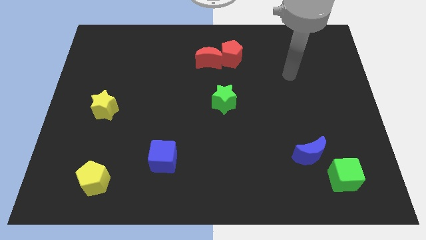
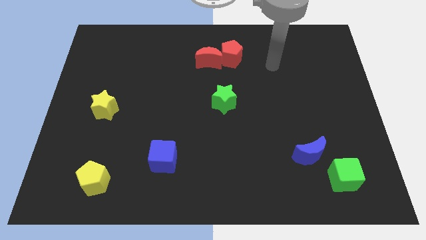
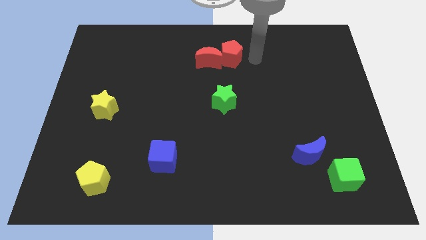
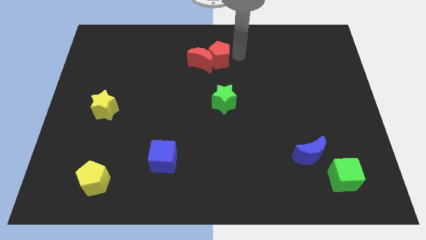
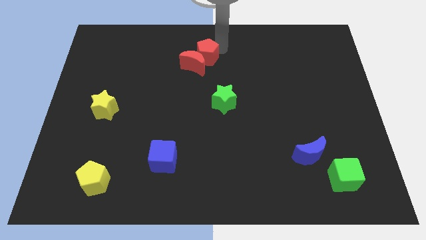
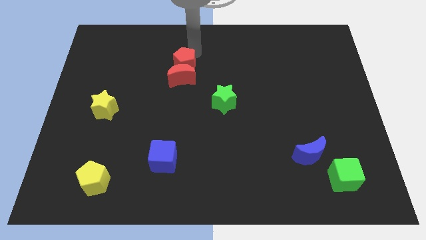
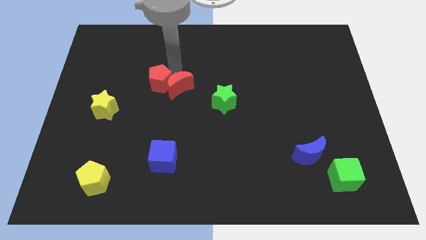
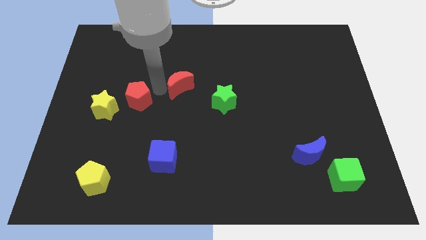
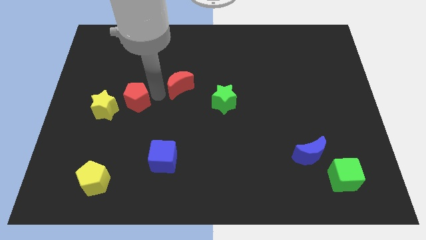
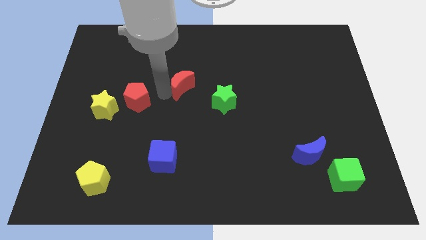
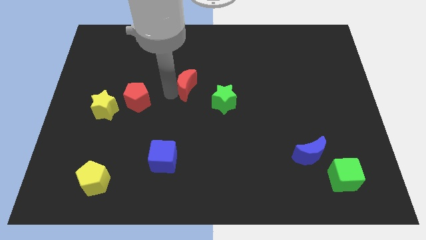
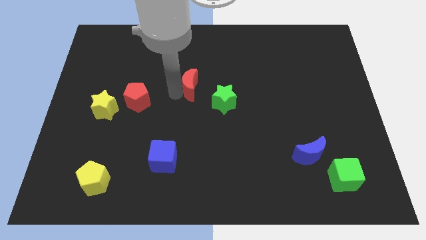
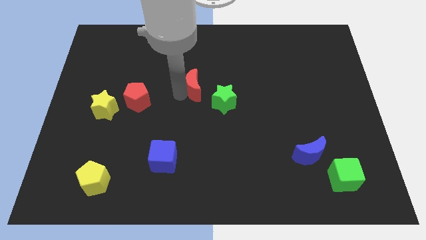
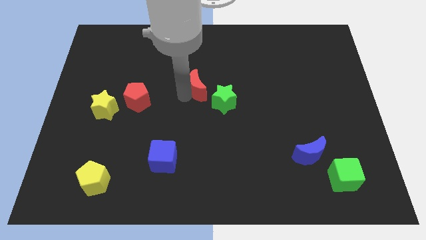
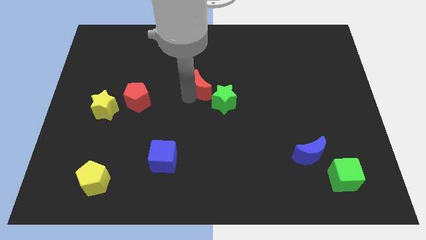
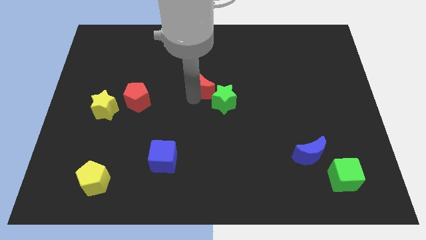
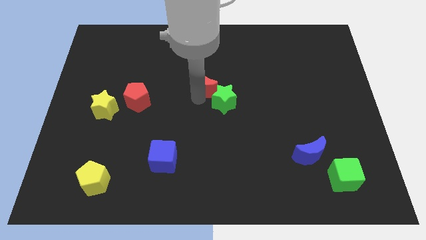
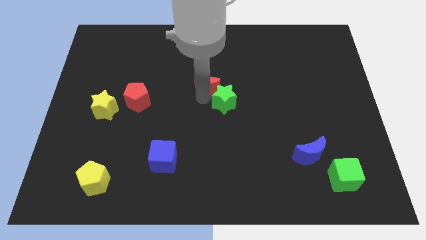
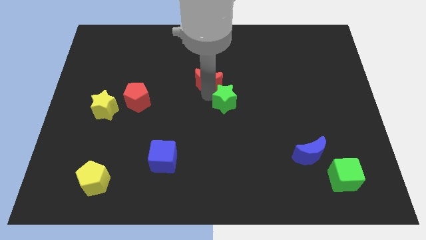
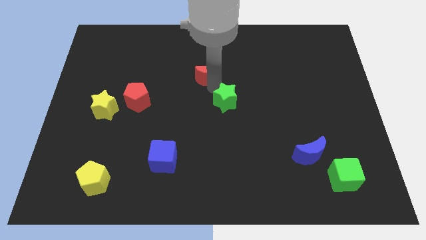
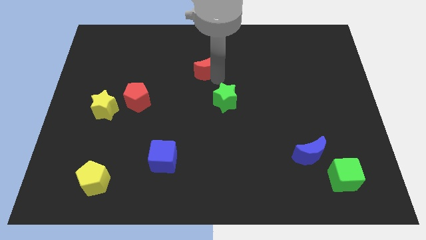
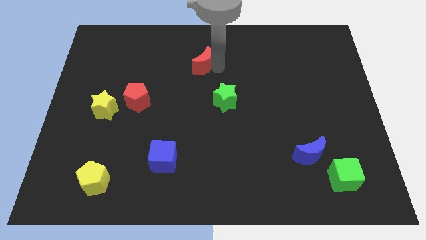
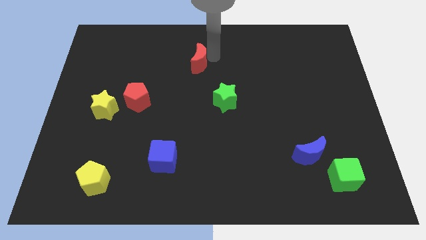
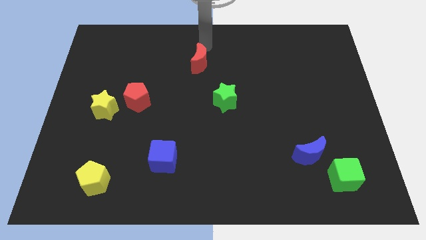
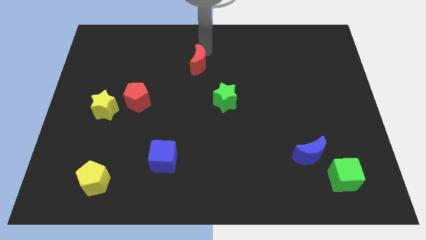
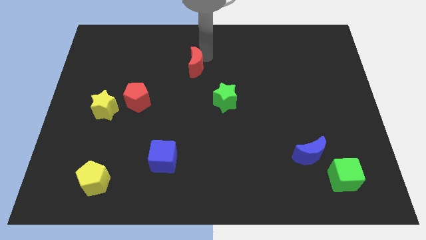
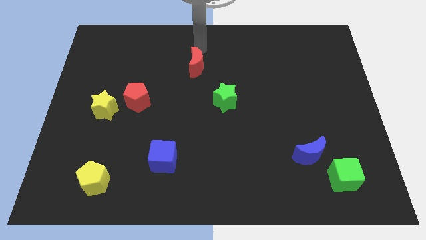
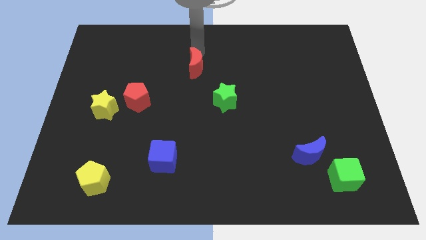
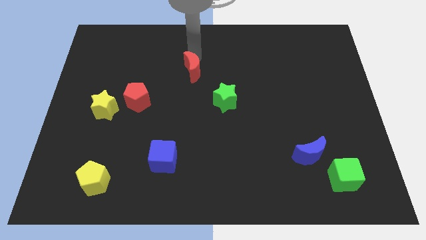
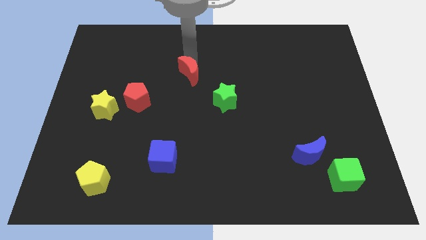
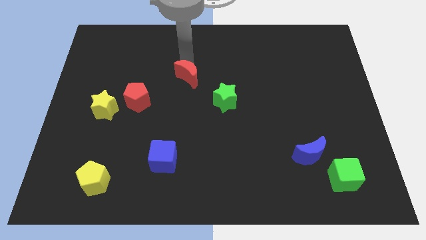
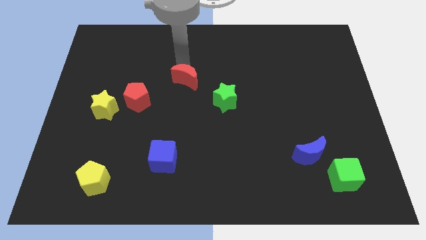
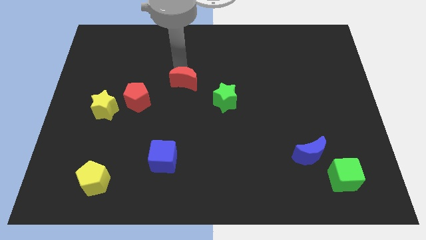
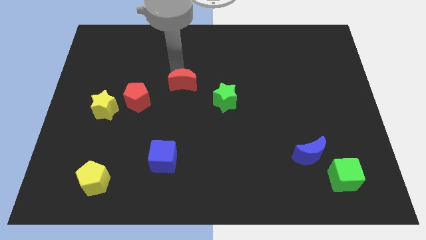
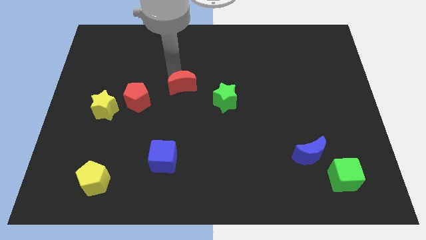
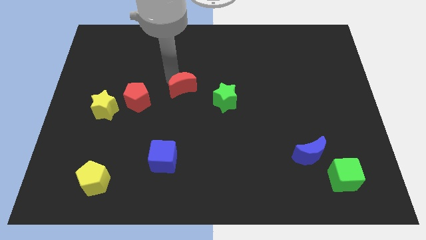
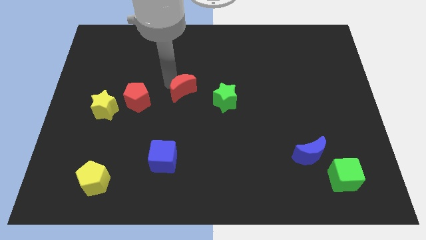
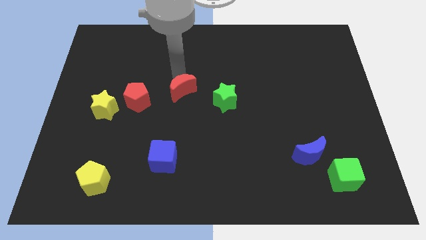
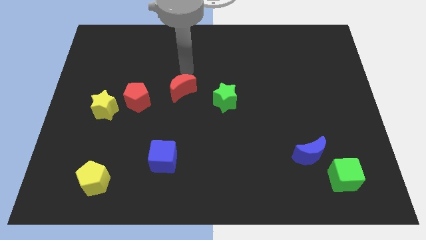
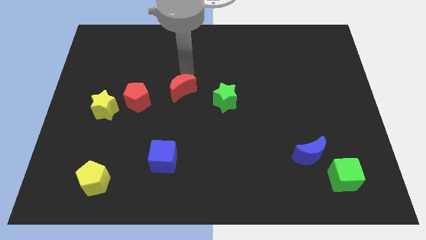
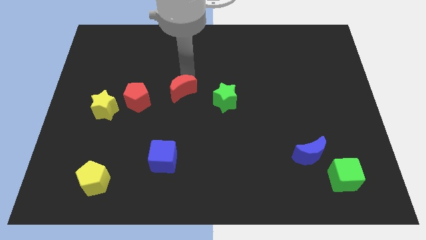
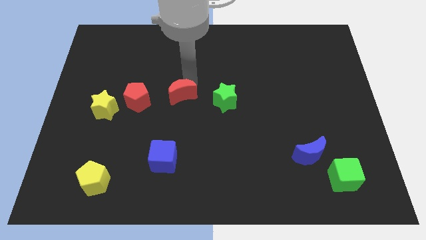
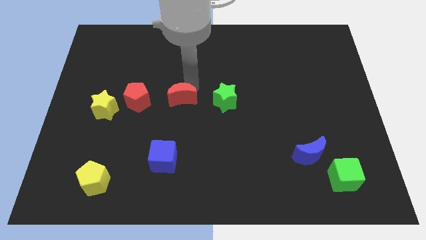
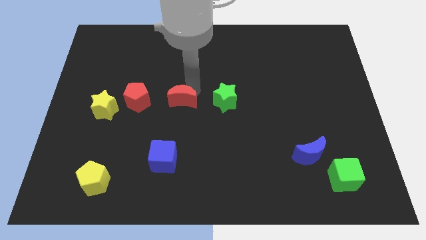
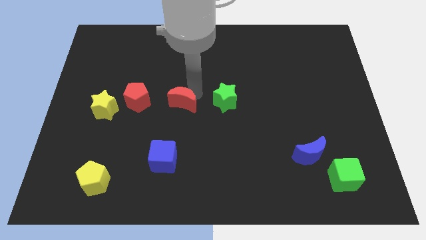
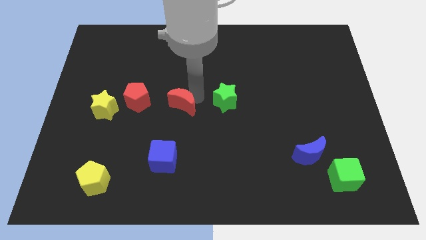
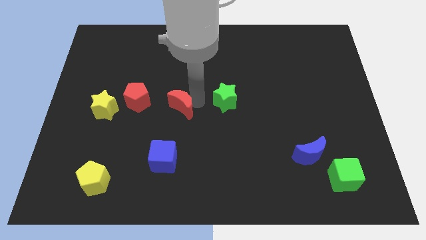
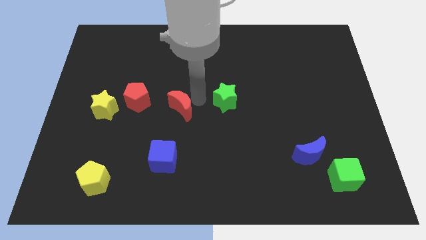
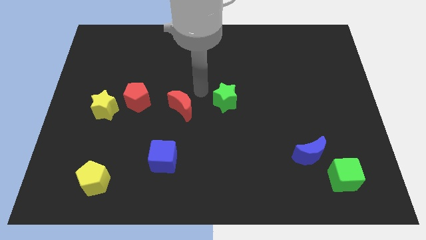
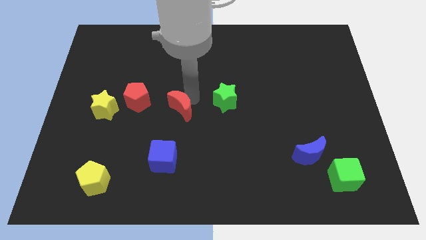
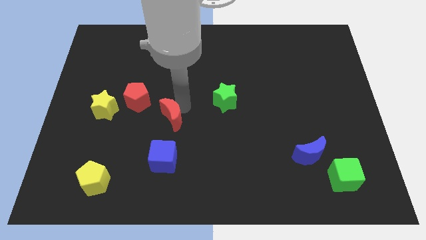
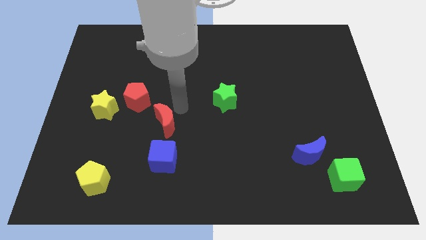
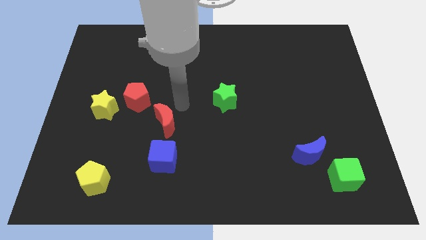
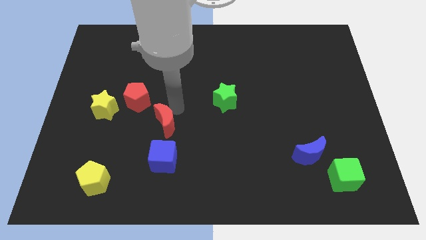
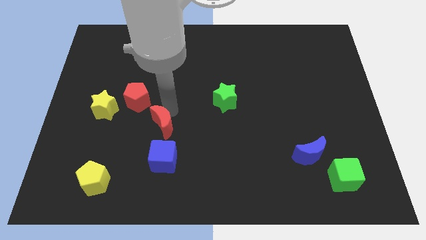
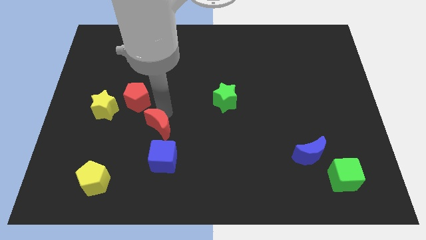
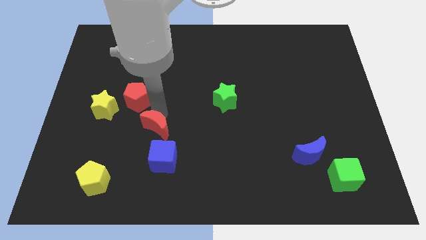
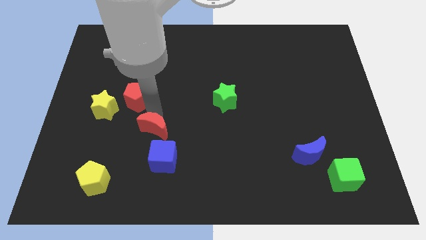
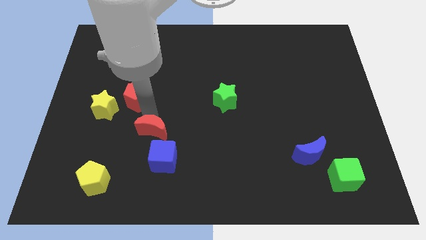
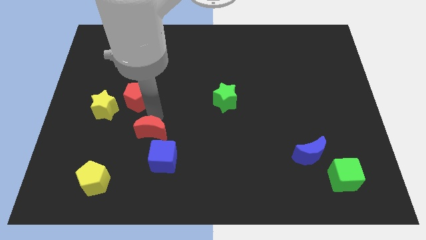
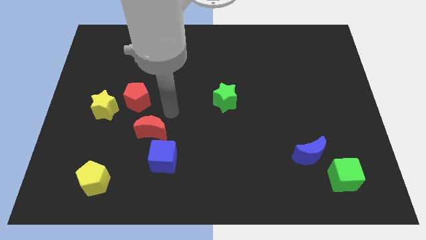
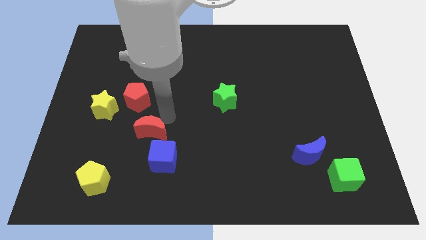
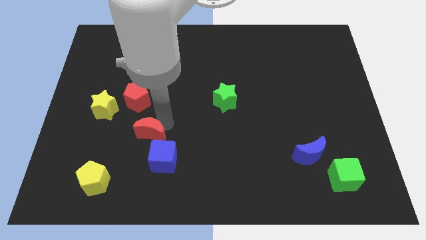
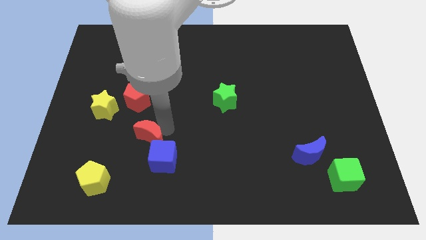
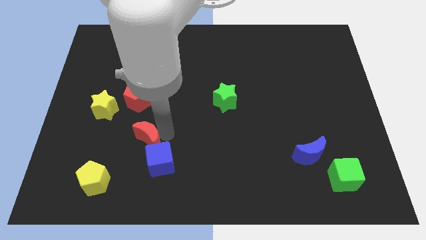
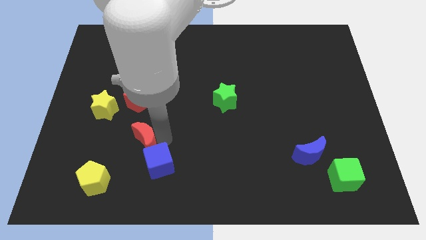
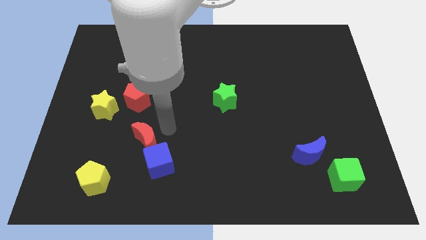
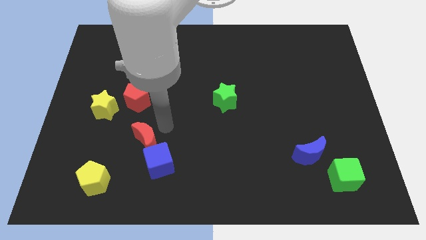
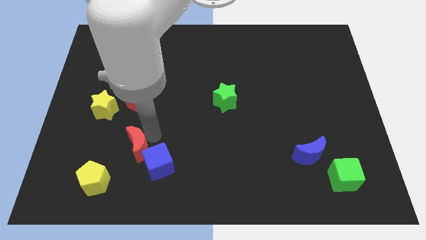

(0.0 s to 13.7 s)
put the red moon diagonally up and to the right of the yellow pentagon
